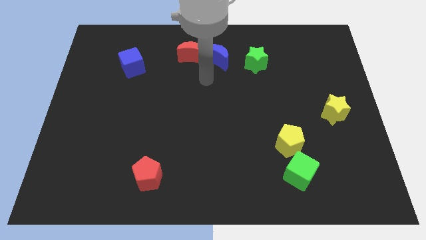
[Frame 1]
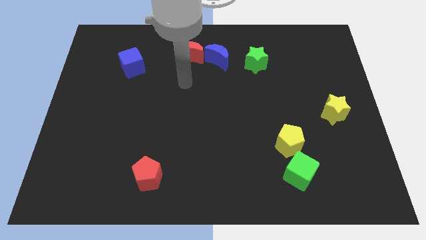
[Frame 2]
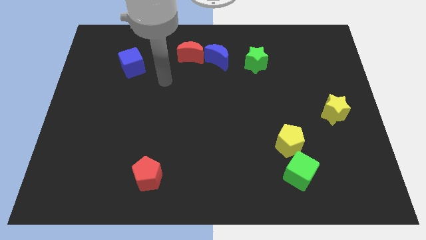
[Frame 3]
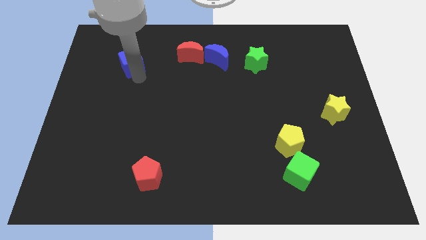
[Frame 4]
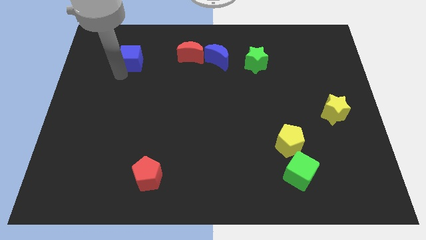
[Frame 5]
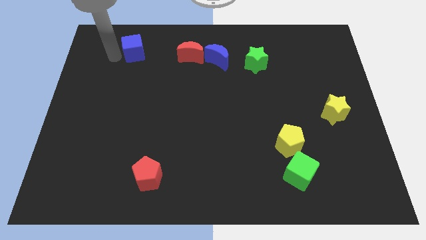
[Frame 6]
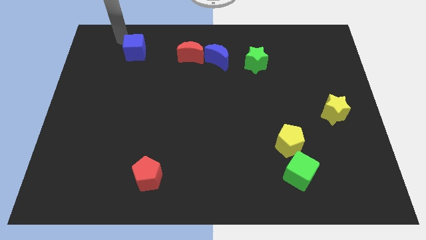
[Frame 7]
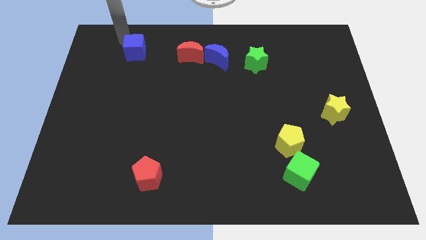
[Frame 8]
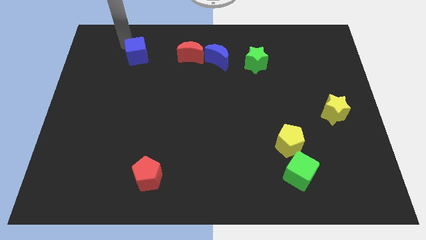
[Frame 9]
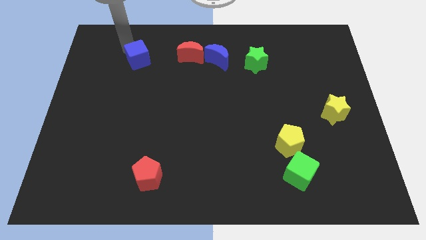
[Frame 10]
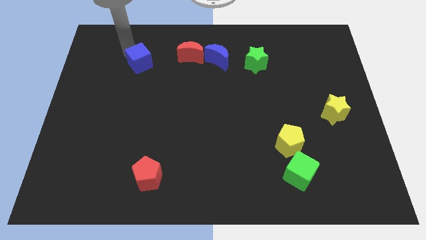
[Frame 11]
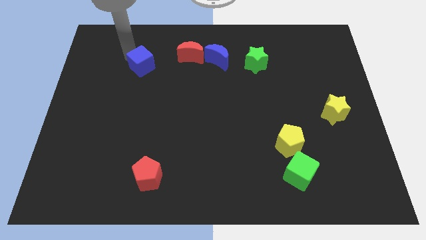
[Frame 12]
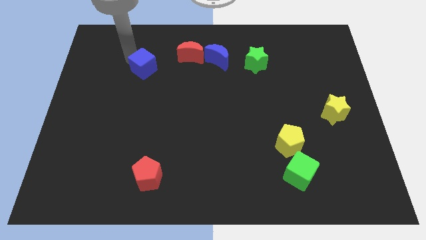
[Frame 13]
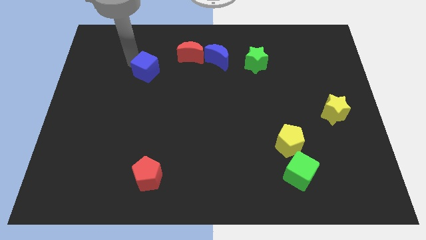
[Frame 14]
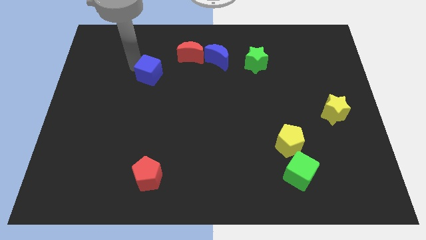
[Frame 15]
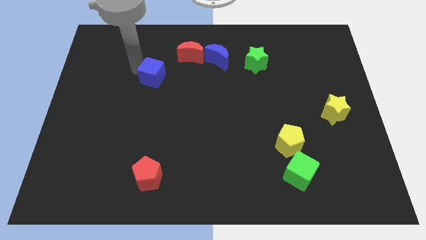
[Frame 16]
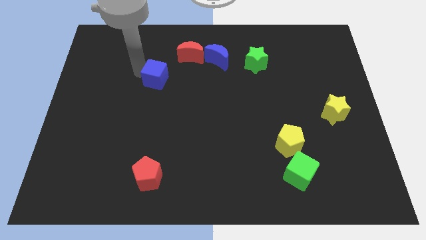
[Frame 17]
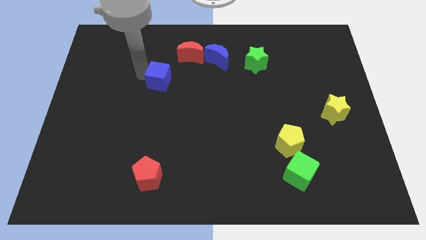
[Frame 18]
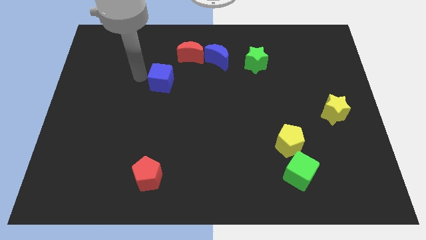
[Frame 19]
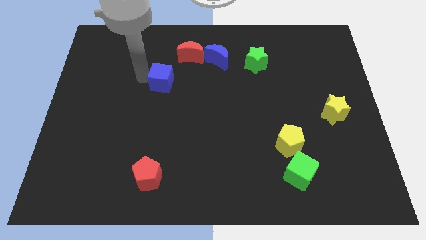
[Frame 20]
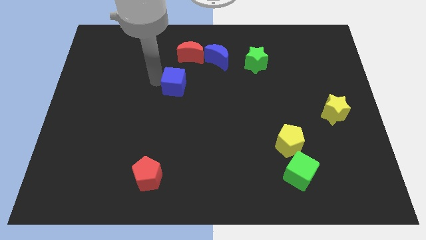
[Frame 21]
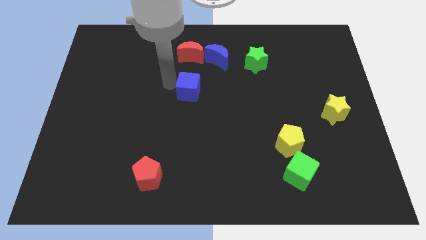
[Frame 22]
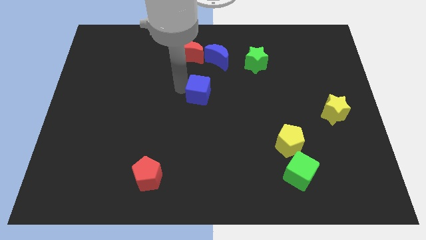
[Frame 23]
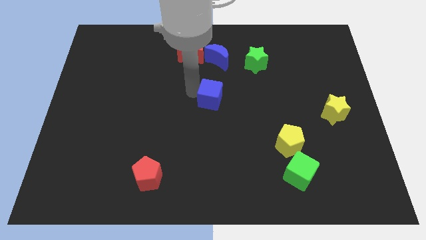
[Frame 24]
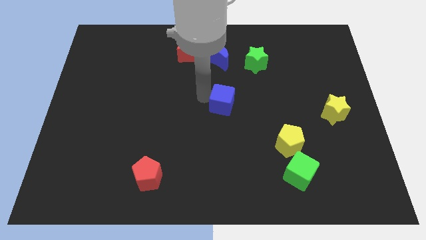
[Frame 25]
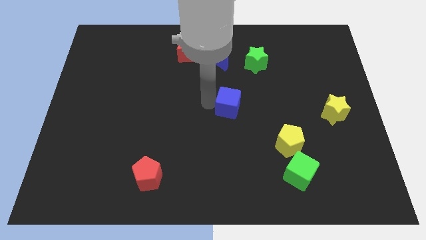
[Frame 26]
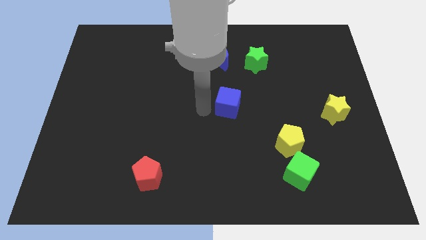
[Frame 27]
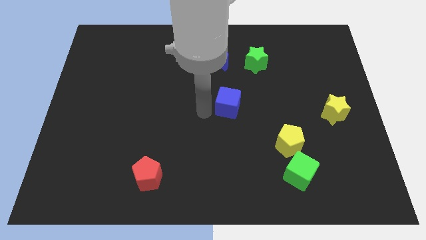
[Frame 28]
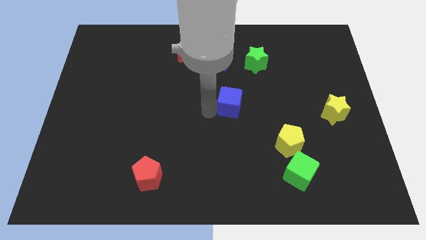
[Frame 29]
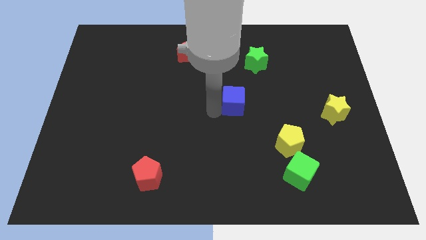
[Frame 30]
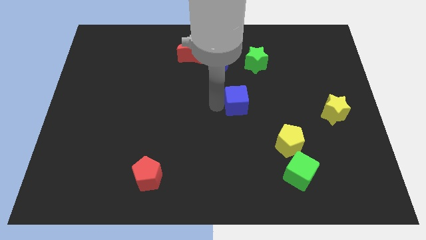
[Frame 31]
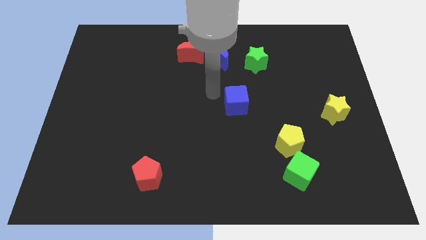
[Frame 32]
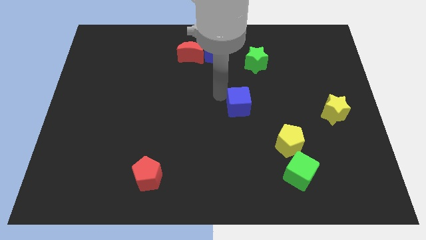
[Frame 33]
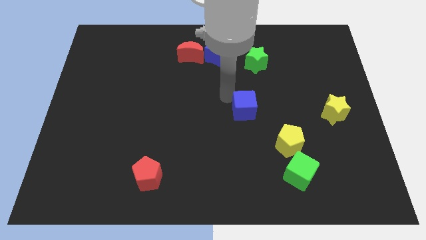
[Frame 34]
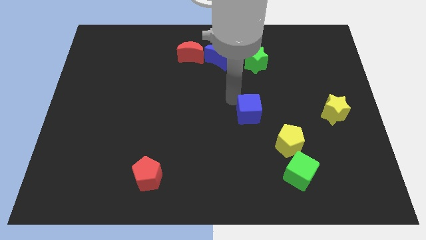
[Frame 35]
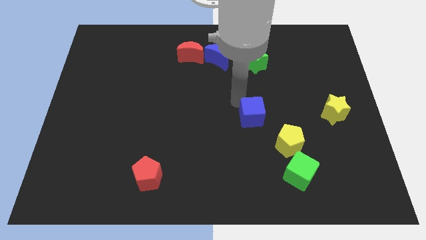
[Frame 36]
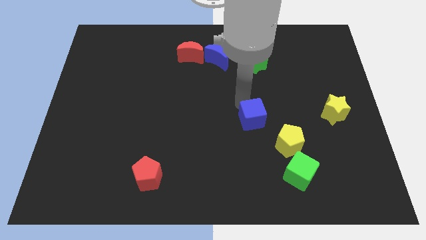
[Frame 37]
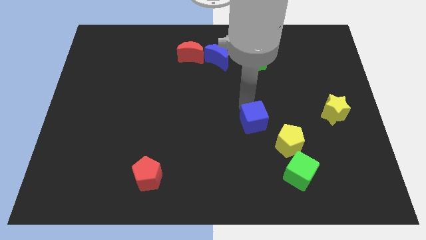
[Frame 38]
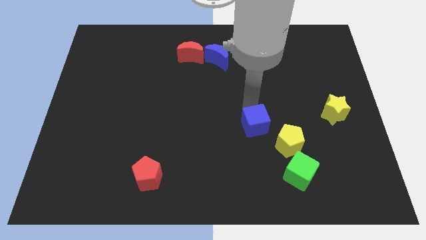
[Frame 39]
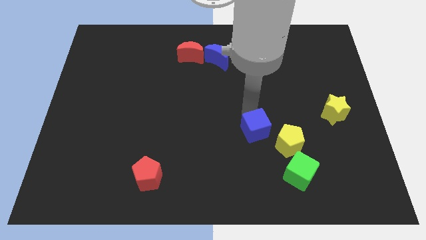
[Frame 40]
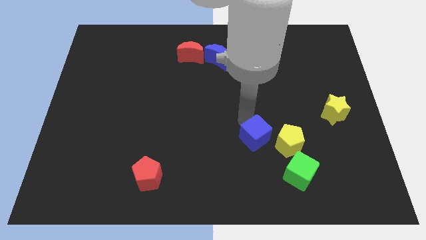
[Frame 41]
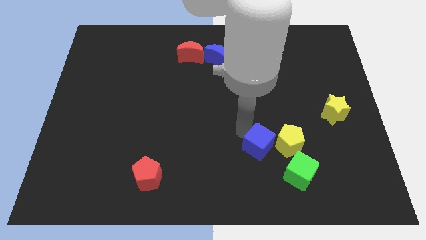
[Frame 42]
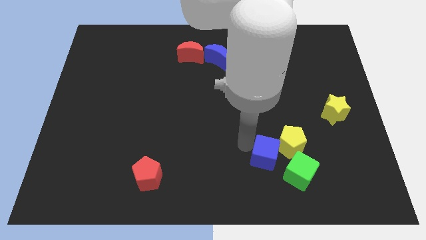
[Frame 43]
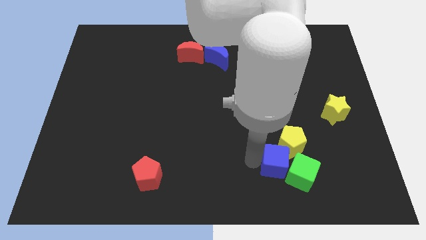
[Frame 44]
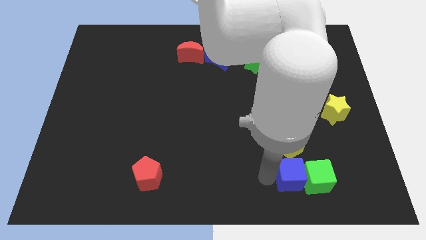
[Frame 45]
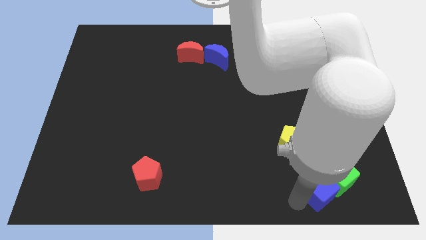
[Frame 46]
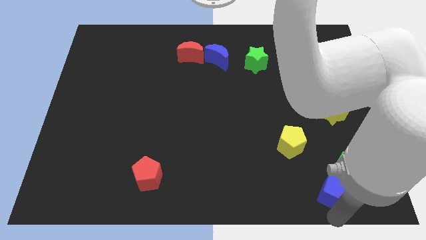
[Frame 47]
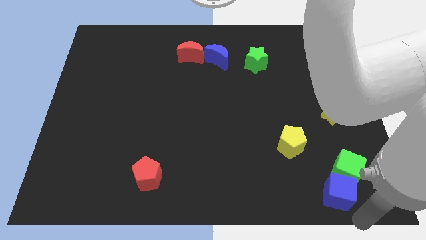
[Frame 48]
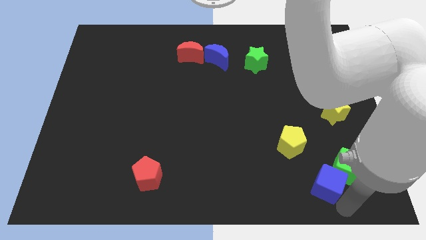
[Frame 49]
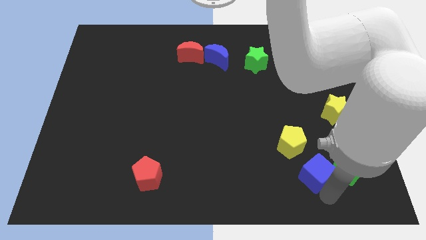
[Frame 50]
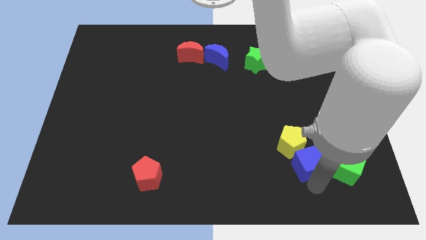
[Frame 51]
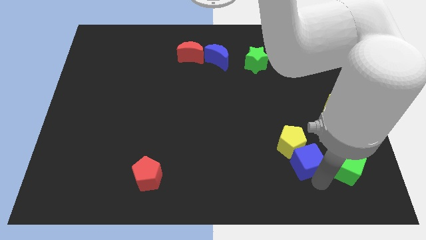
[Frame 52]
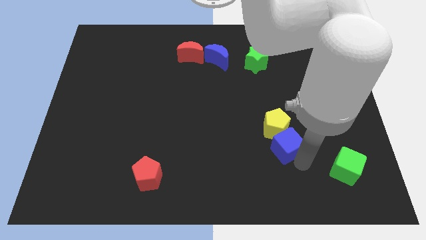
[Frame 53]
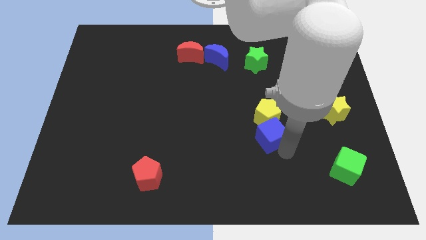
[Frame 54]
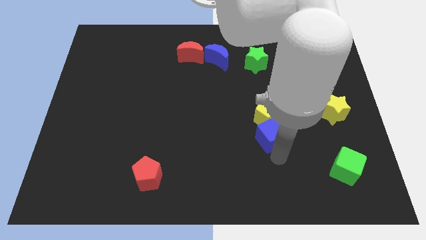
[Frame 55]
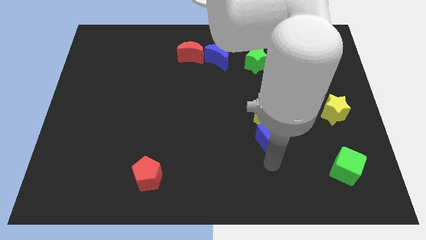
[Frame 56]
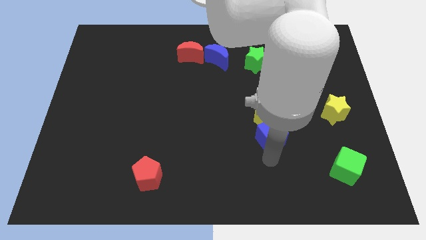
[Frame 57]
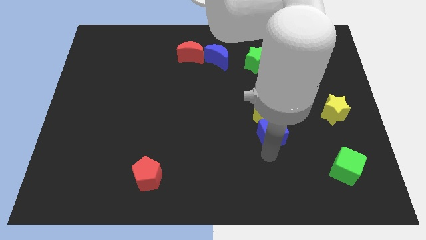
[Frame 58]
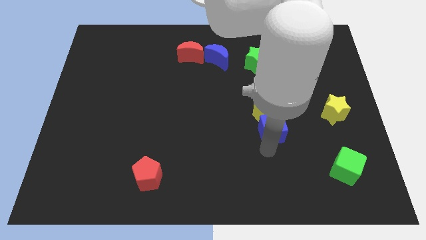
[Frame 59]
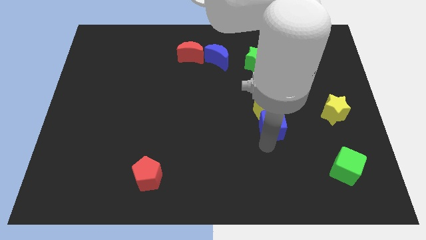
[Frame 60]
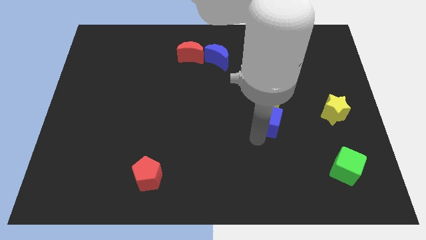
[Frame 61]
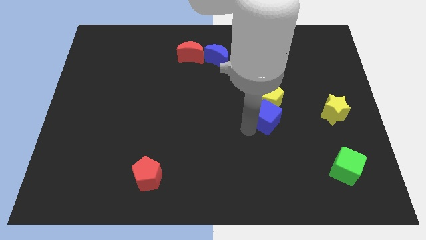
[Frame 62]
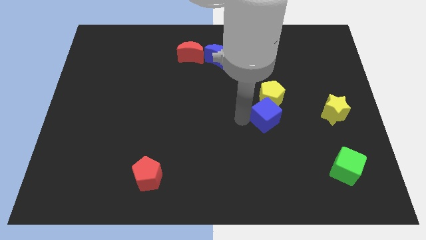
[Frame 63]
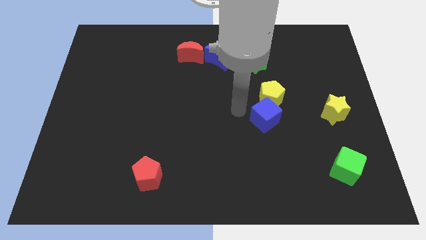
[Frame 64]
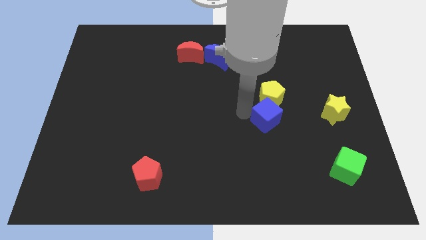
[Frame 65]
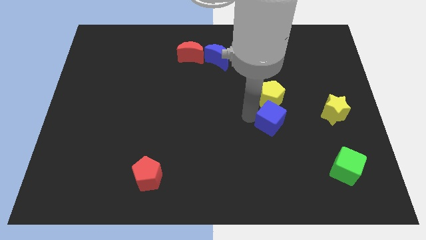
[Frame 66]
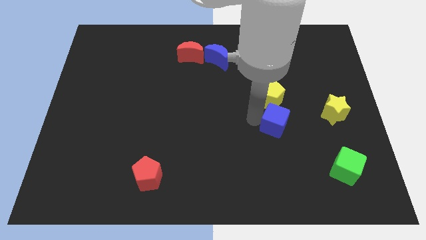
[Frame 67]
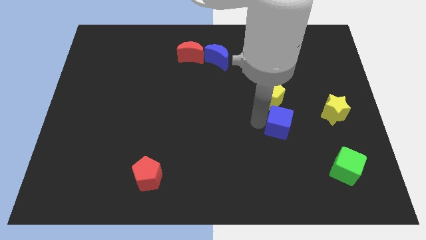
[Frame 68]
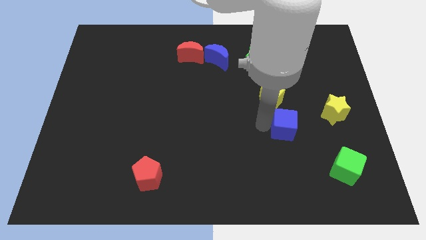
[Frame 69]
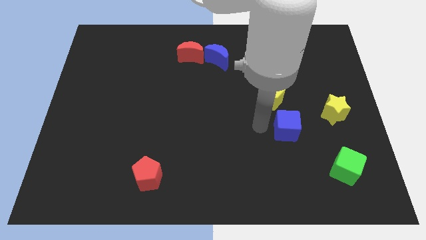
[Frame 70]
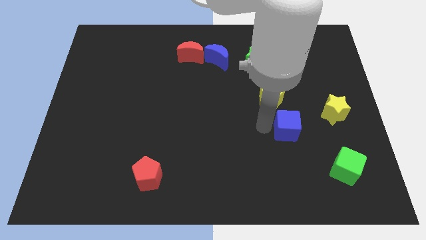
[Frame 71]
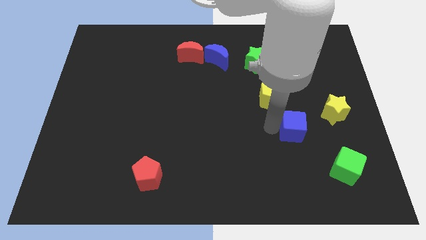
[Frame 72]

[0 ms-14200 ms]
move the blue cube to the bottom left side of the yellow star
